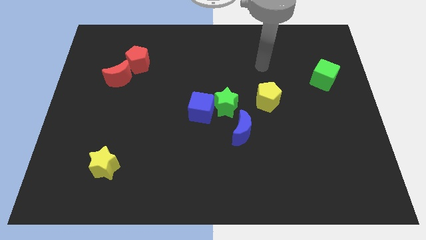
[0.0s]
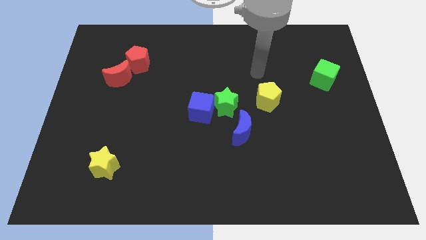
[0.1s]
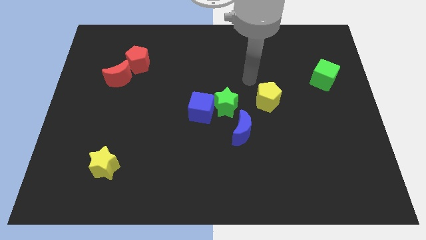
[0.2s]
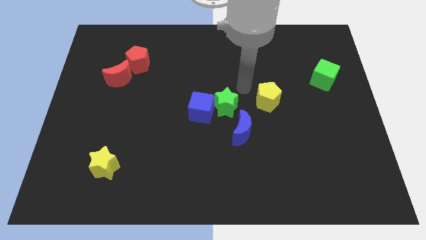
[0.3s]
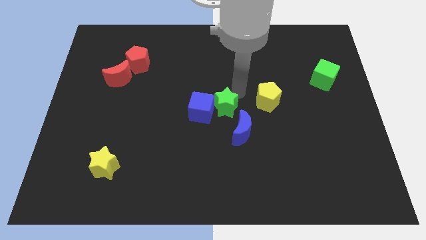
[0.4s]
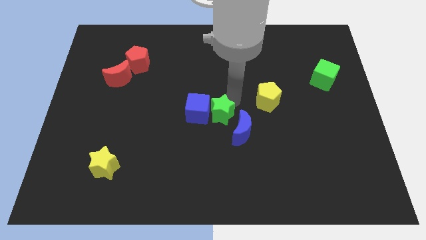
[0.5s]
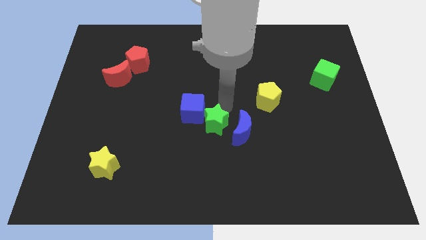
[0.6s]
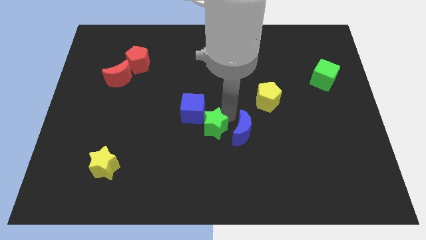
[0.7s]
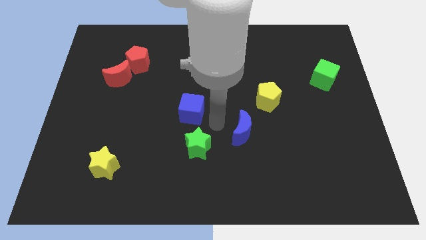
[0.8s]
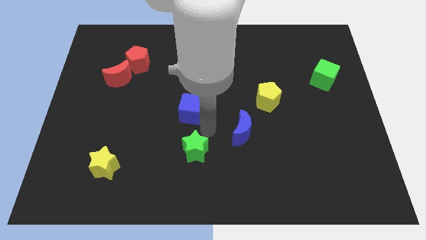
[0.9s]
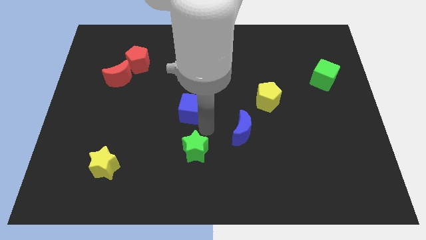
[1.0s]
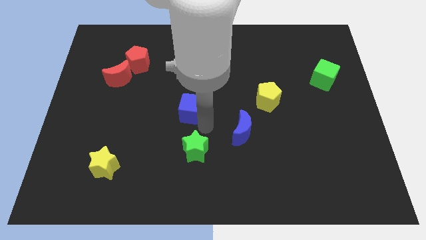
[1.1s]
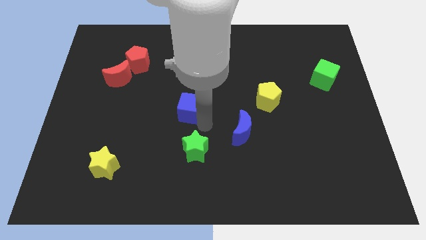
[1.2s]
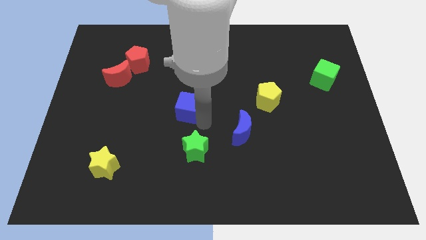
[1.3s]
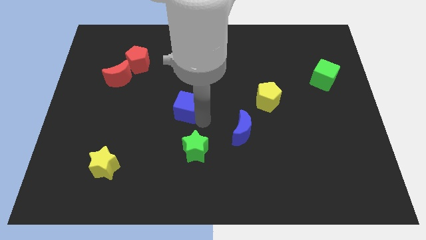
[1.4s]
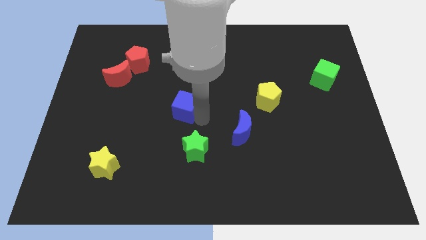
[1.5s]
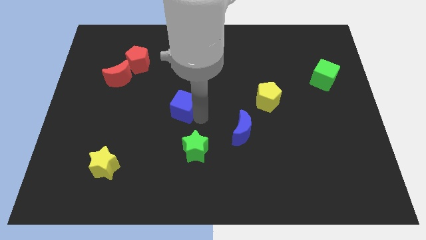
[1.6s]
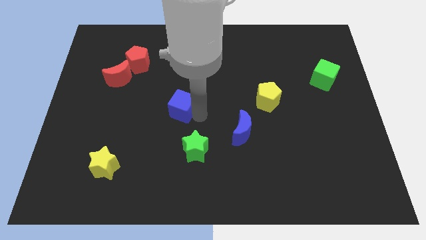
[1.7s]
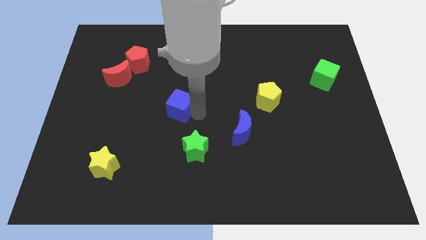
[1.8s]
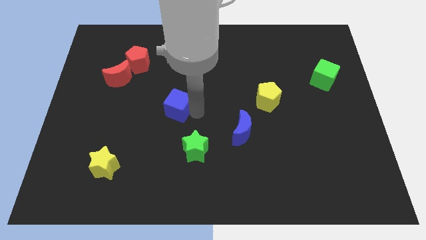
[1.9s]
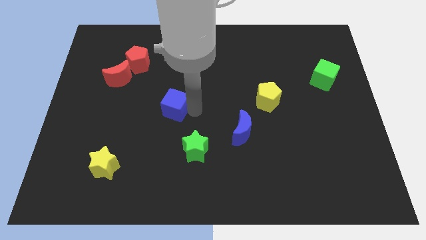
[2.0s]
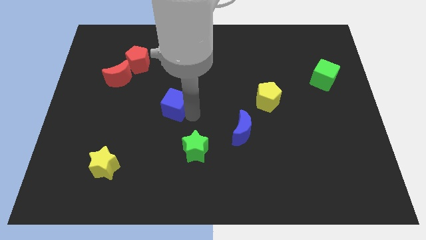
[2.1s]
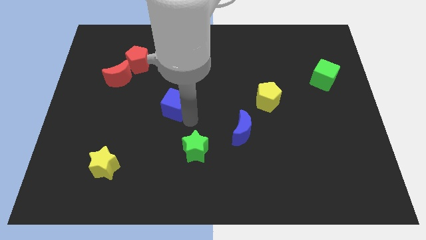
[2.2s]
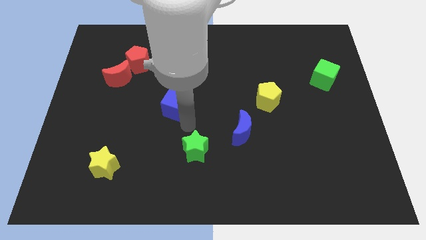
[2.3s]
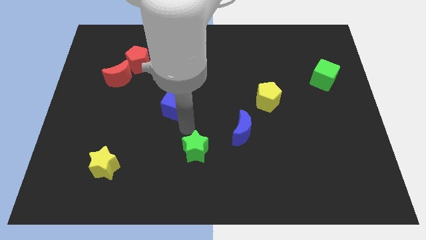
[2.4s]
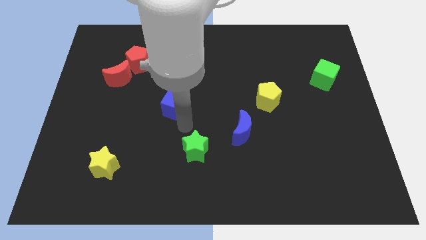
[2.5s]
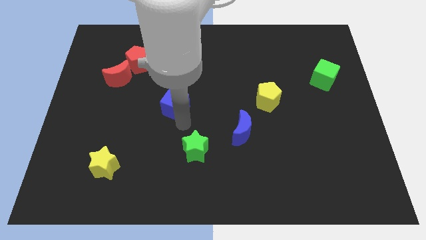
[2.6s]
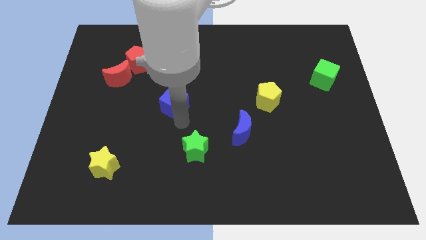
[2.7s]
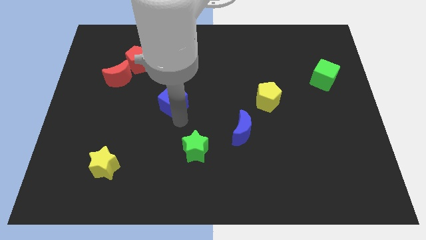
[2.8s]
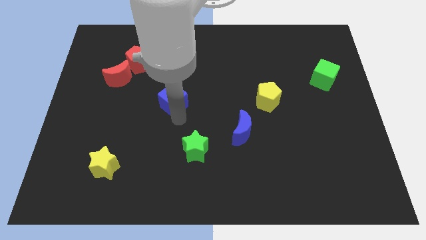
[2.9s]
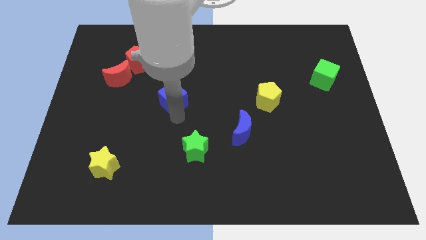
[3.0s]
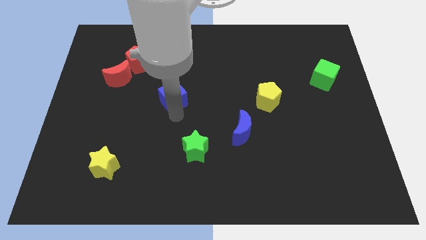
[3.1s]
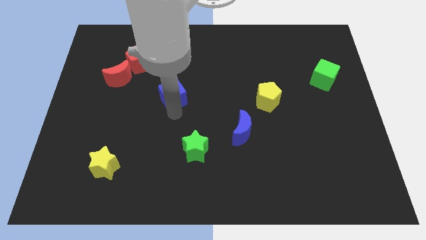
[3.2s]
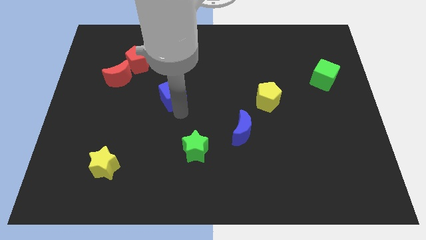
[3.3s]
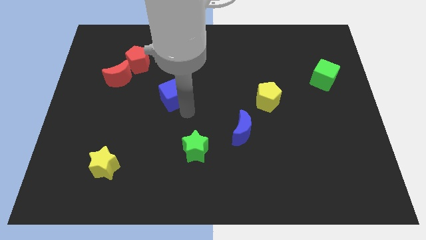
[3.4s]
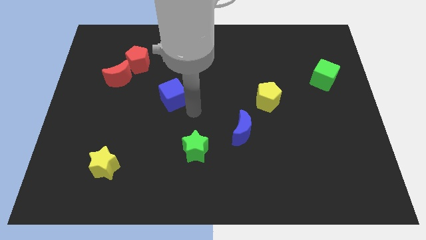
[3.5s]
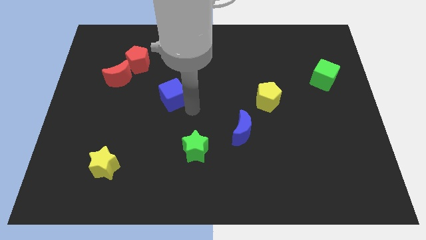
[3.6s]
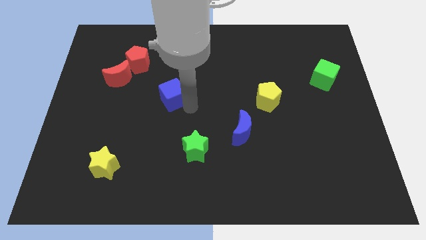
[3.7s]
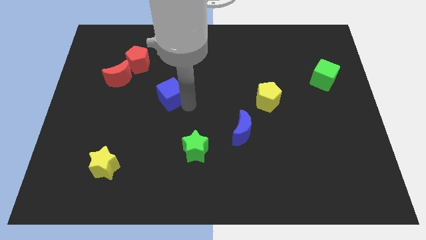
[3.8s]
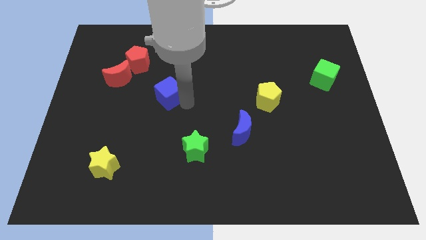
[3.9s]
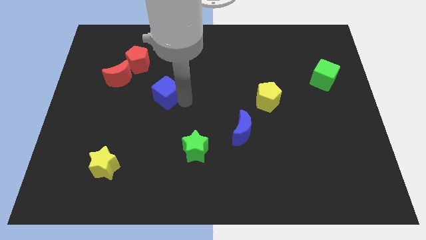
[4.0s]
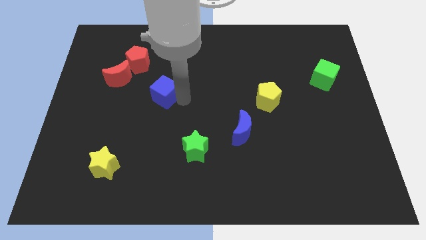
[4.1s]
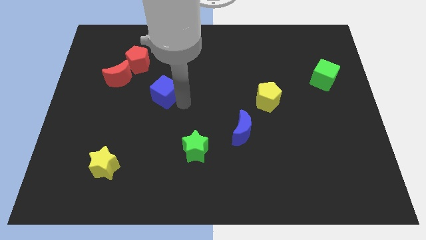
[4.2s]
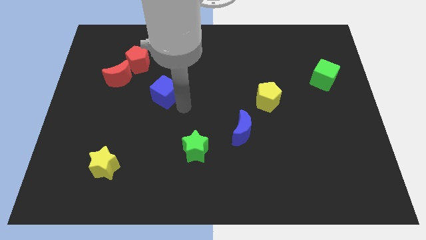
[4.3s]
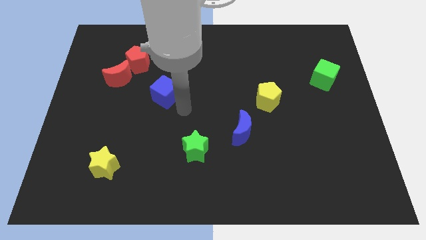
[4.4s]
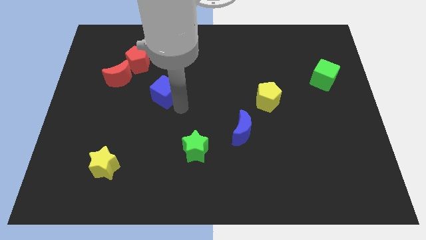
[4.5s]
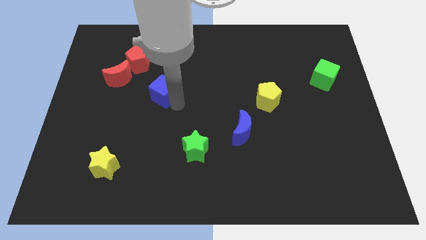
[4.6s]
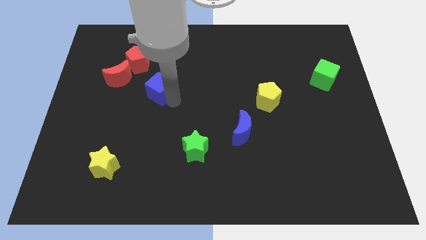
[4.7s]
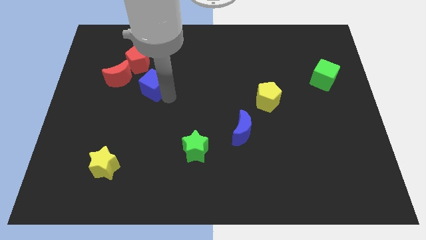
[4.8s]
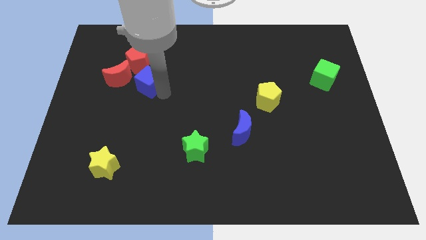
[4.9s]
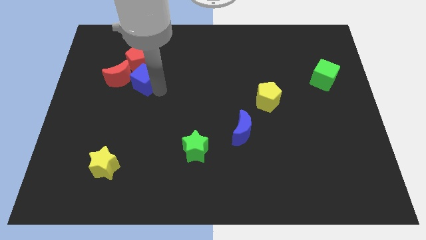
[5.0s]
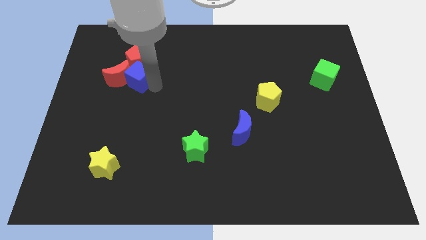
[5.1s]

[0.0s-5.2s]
put the blue cube close to the red moon

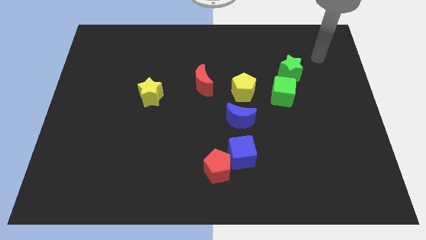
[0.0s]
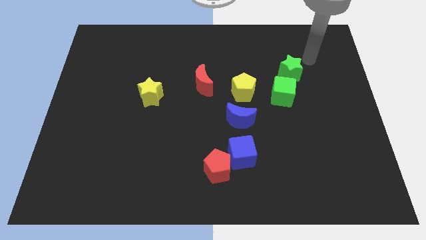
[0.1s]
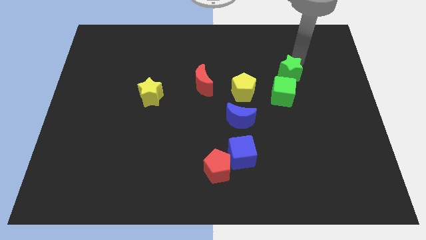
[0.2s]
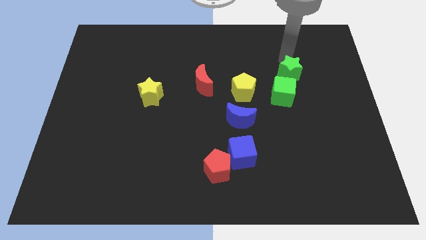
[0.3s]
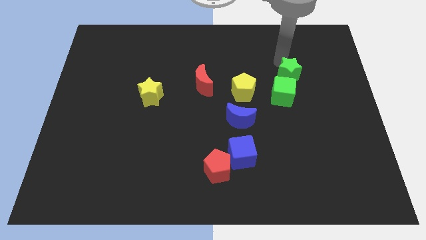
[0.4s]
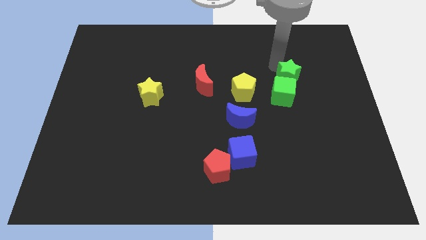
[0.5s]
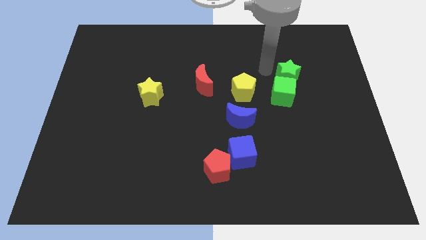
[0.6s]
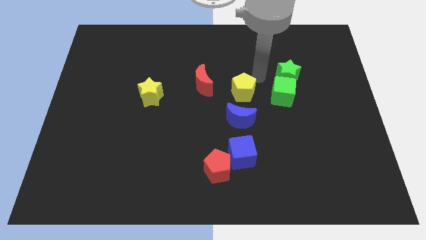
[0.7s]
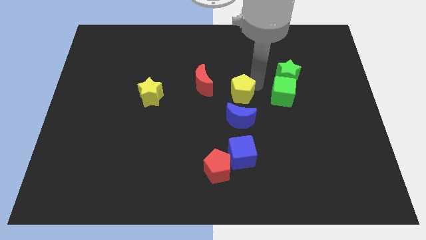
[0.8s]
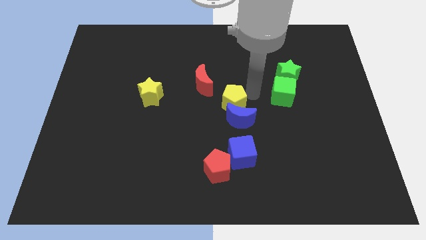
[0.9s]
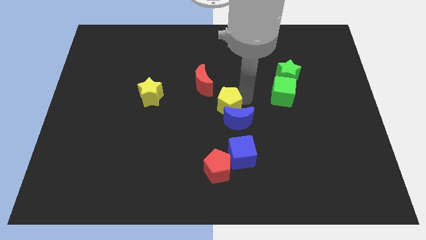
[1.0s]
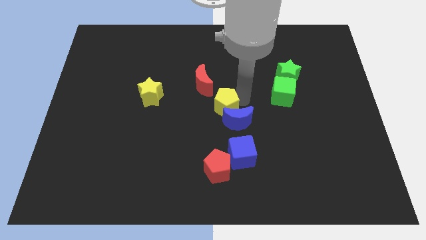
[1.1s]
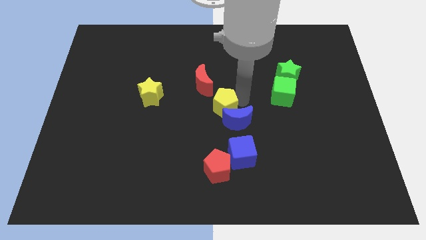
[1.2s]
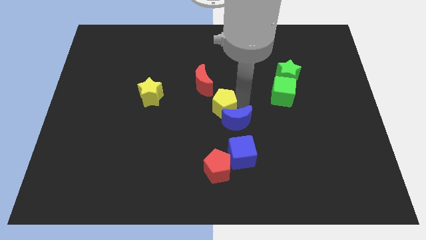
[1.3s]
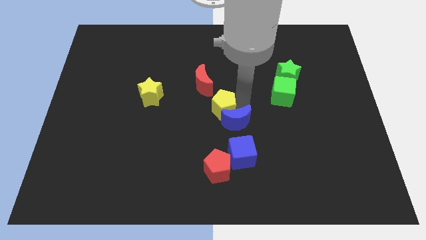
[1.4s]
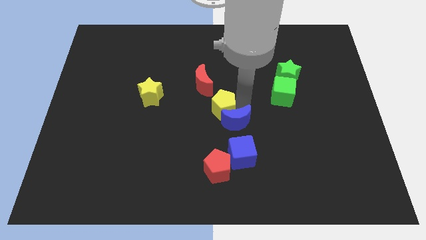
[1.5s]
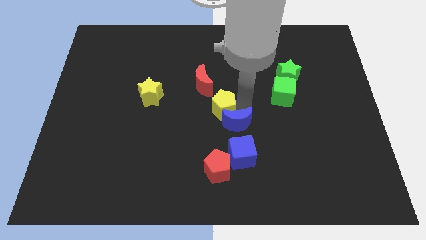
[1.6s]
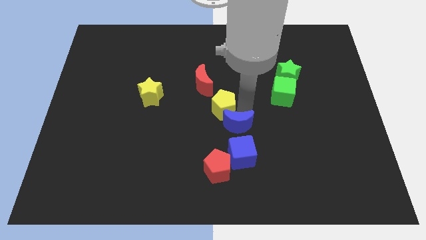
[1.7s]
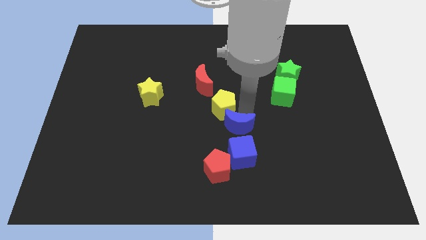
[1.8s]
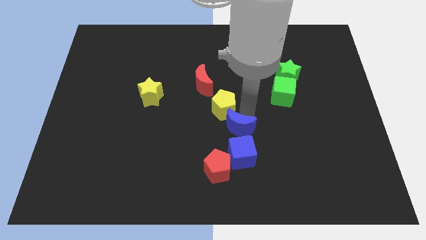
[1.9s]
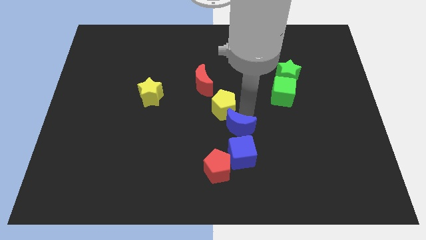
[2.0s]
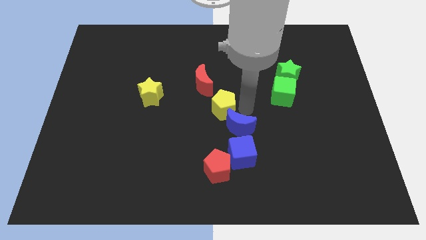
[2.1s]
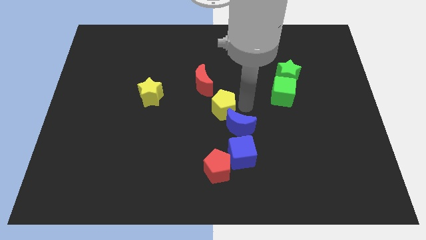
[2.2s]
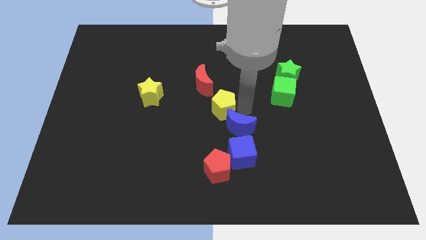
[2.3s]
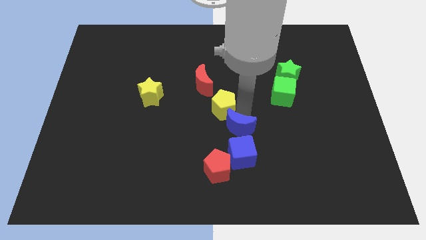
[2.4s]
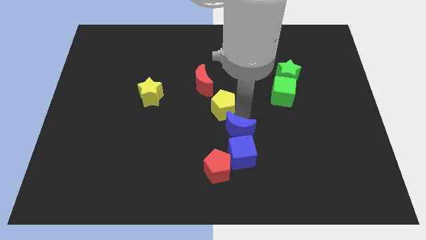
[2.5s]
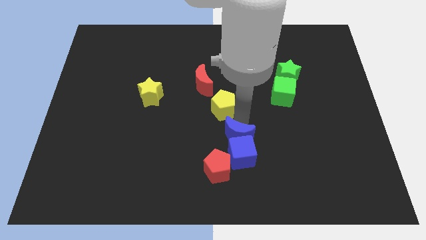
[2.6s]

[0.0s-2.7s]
move the blue moon towards the blue cube
